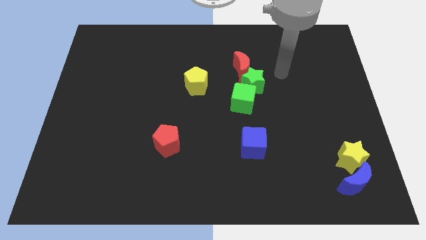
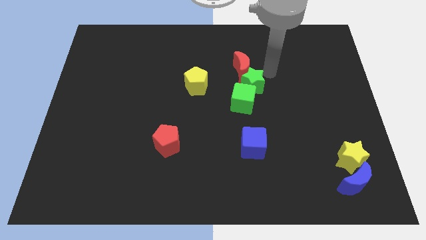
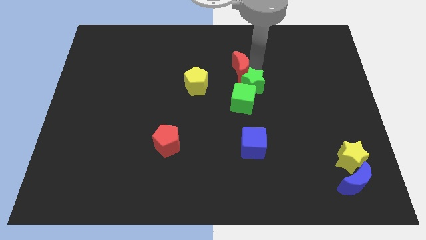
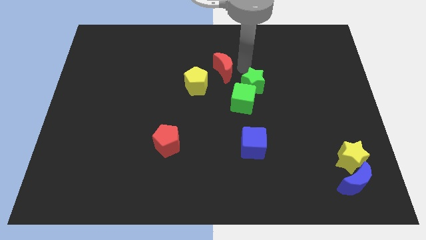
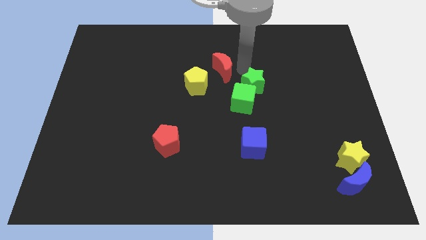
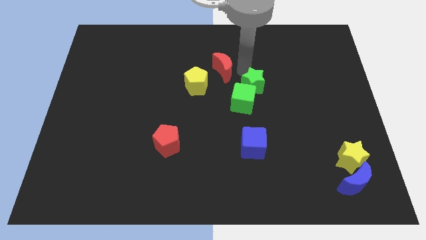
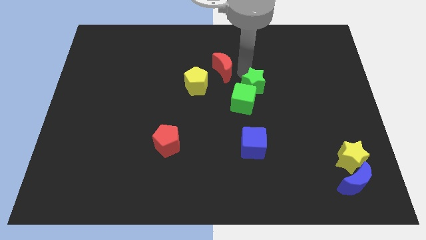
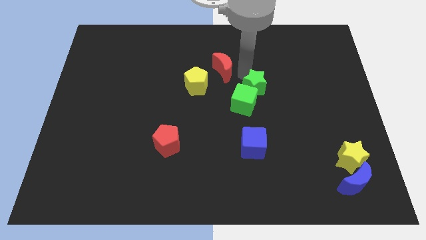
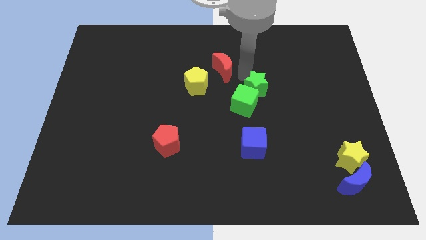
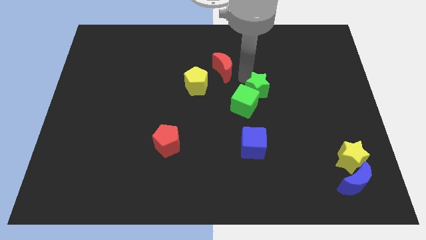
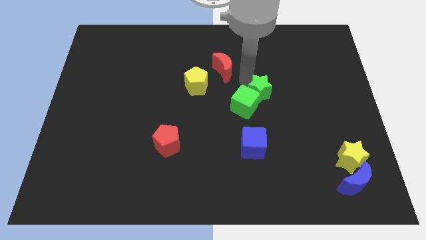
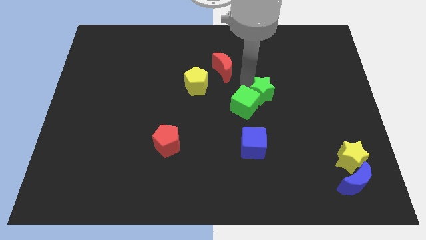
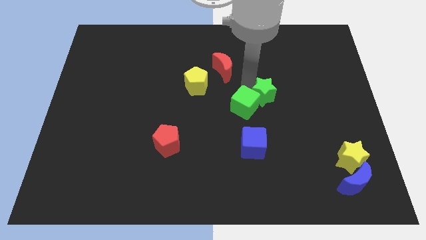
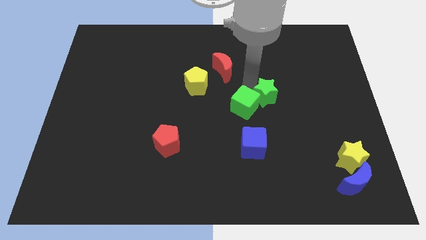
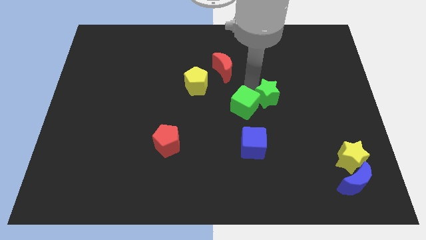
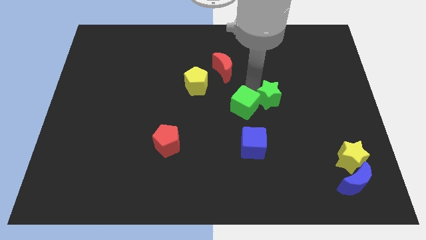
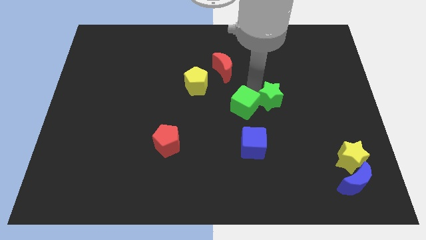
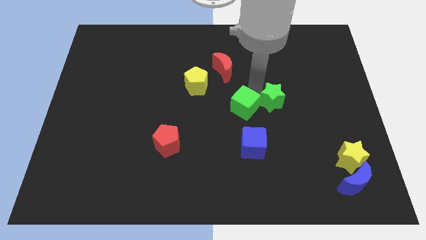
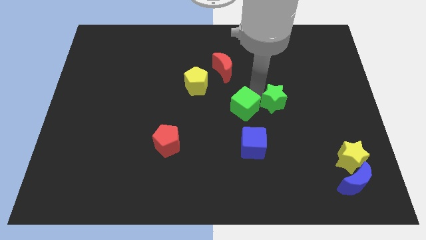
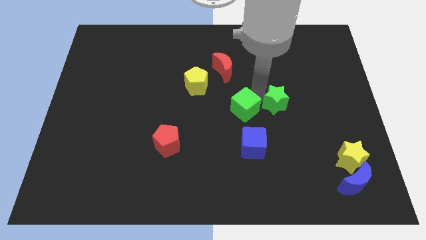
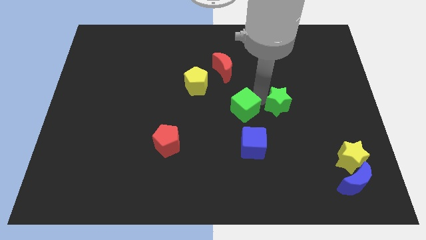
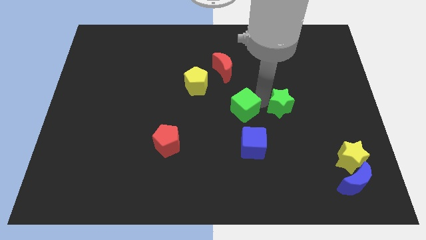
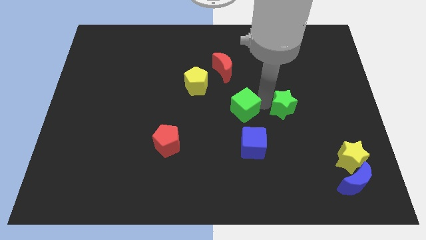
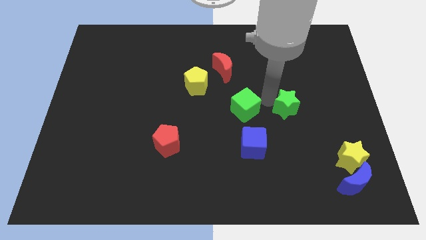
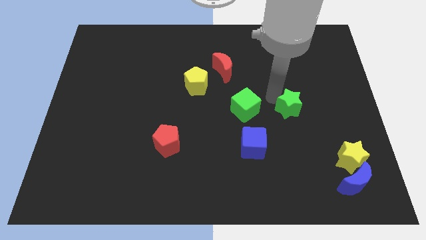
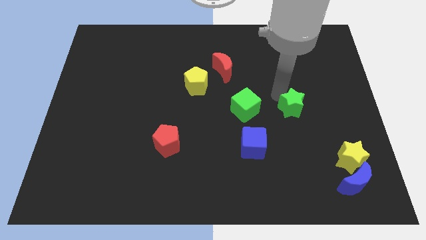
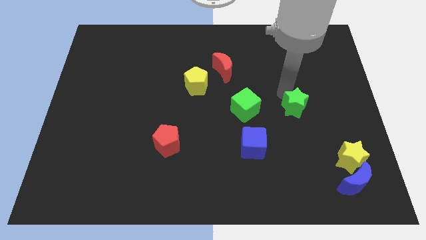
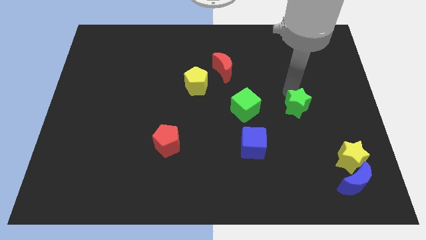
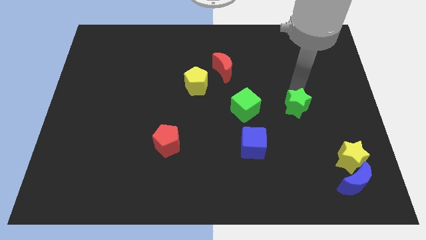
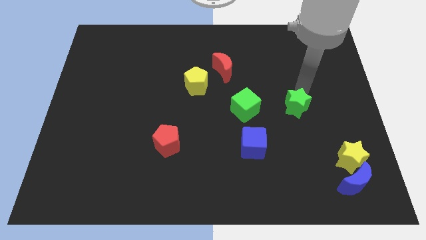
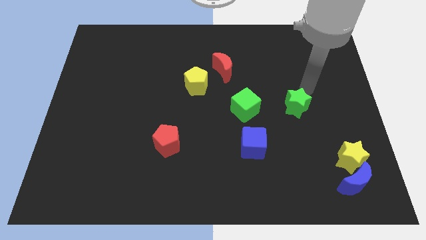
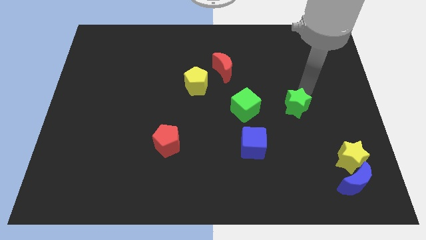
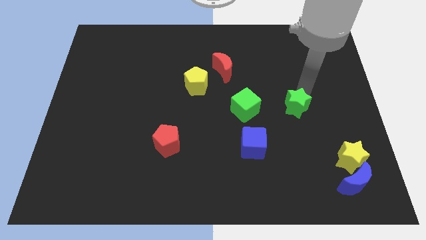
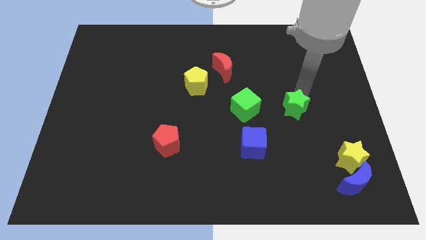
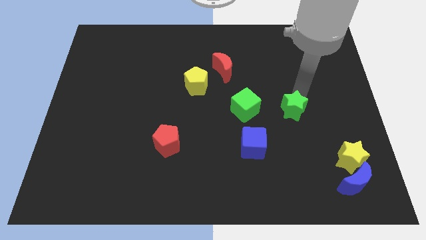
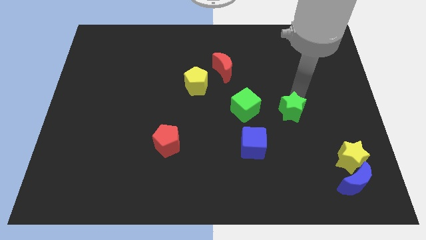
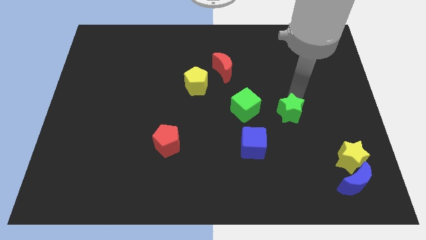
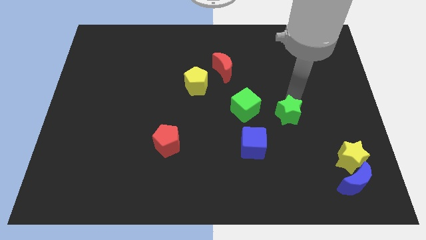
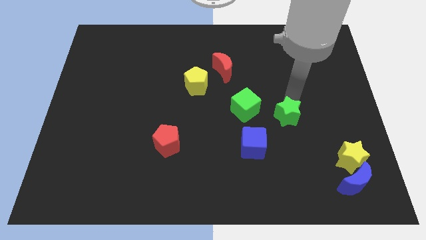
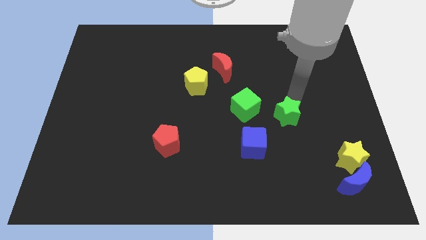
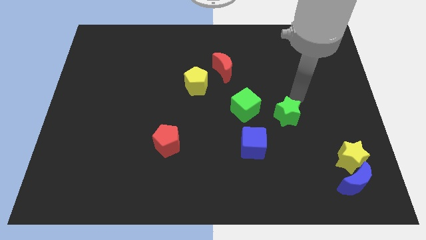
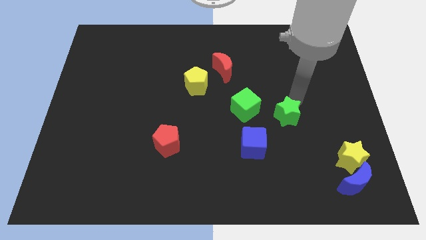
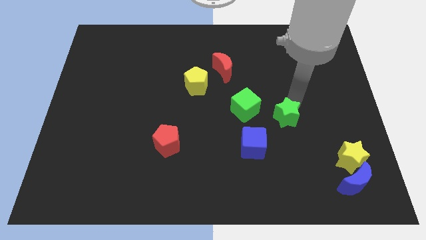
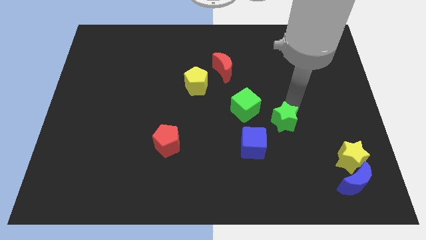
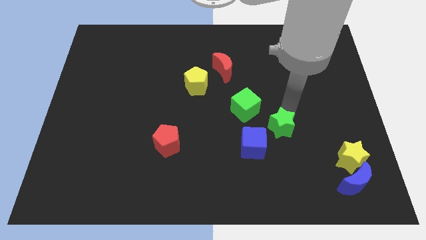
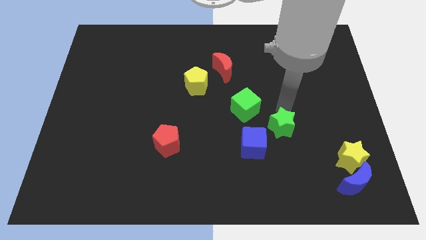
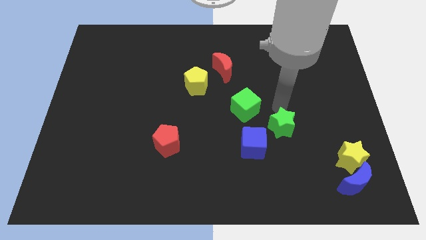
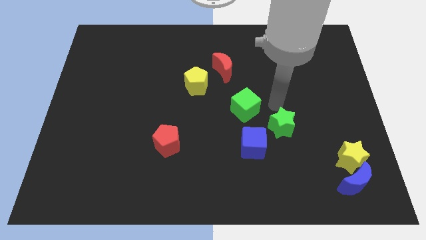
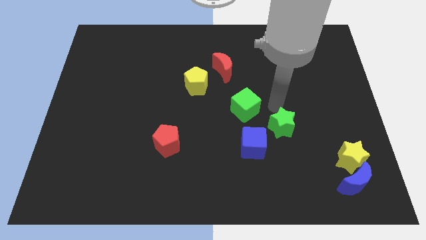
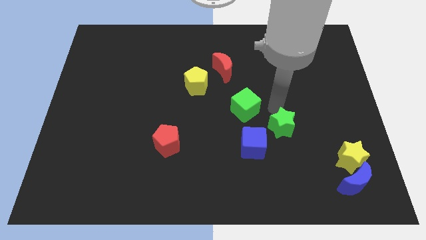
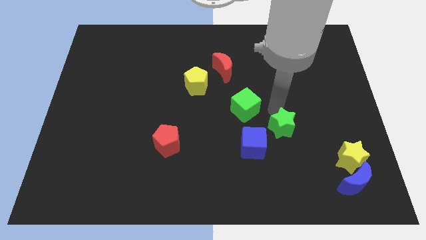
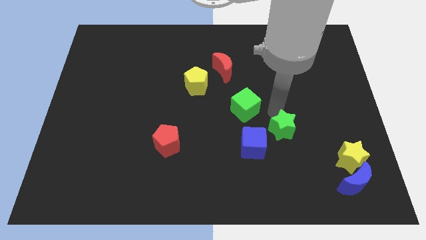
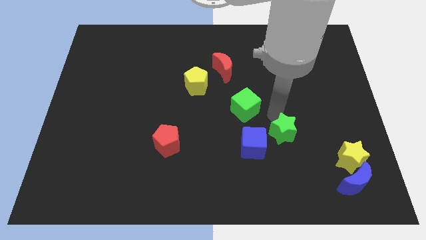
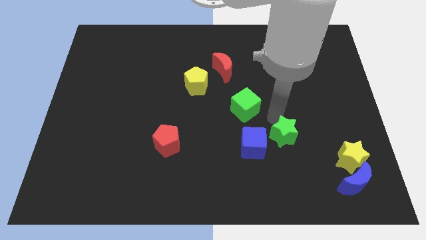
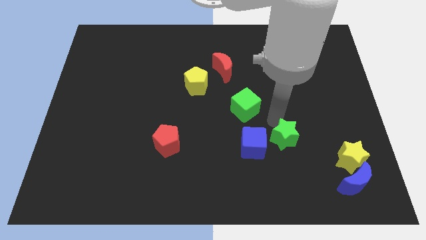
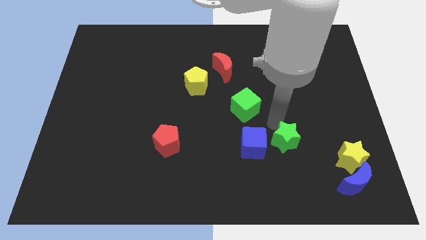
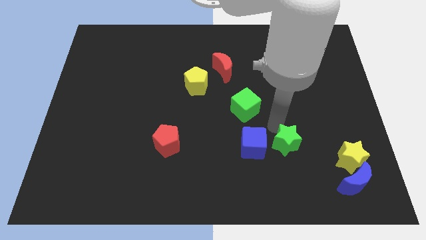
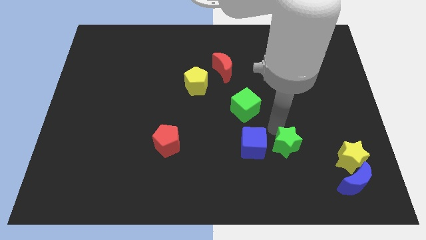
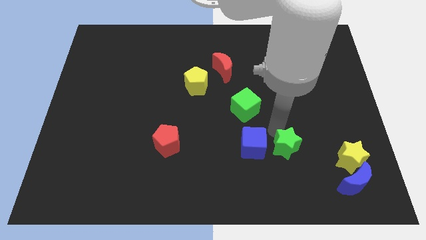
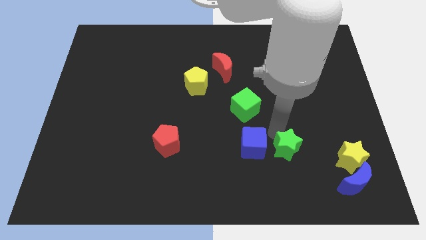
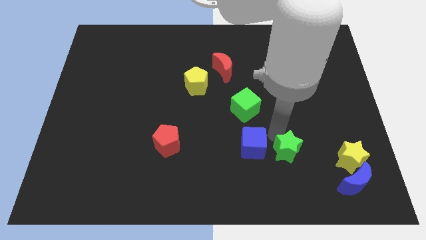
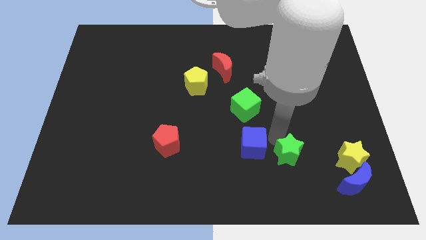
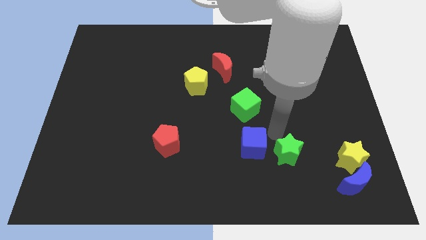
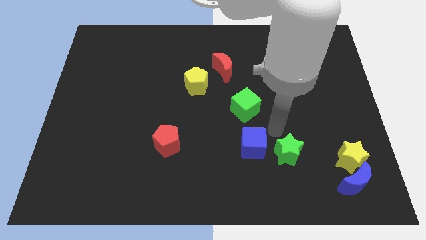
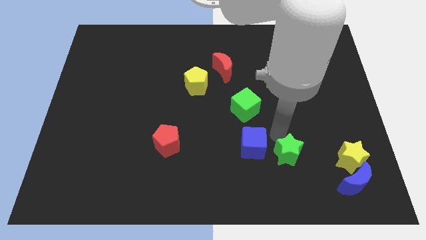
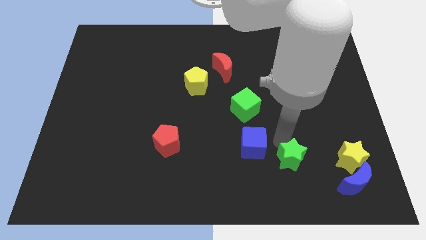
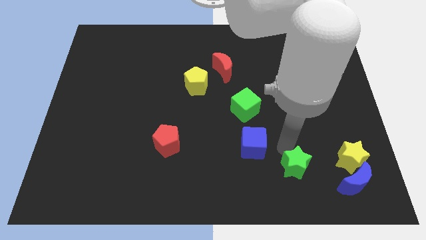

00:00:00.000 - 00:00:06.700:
slide the green star to the left of the blue moon
